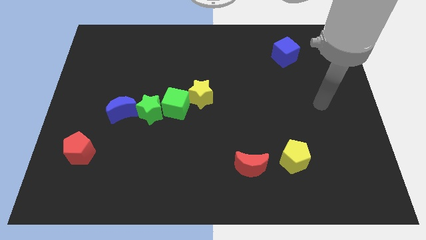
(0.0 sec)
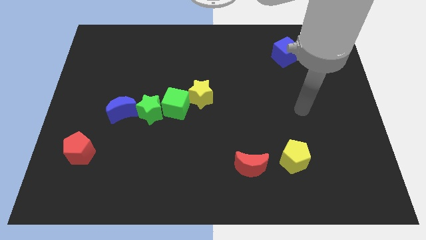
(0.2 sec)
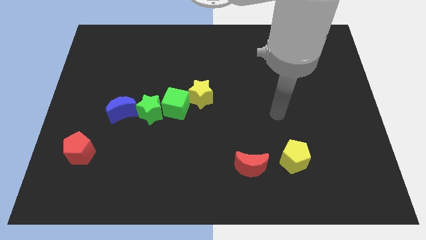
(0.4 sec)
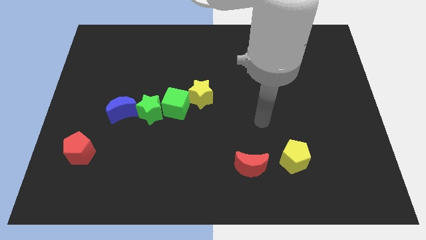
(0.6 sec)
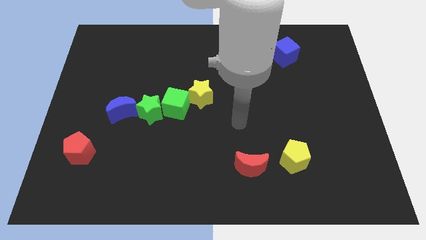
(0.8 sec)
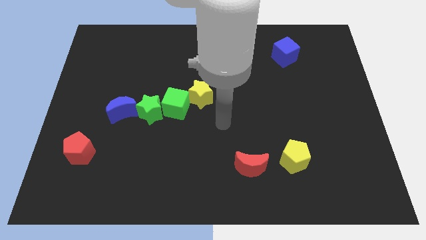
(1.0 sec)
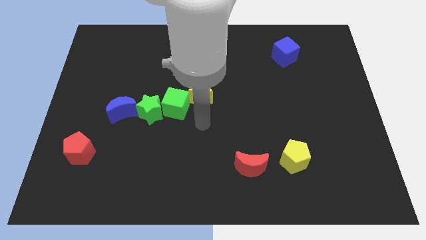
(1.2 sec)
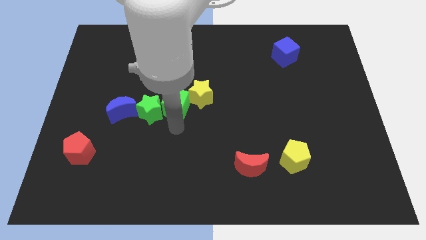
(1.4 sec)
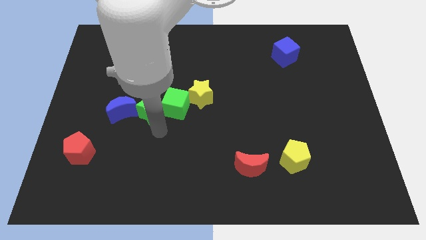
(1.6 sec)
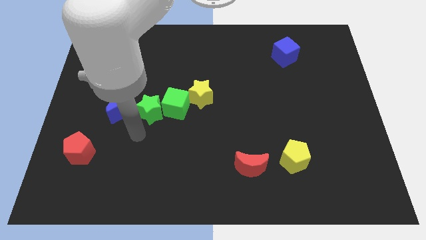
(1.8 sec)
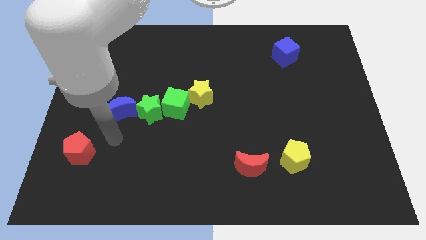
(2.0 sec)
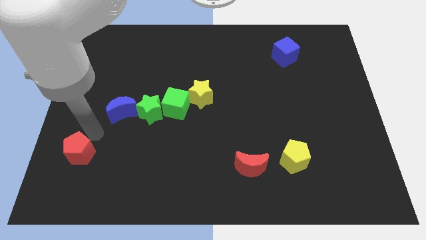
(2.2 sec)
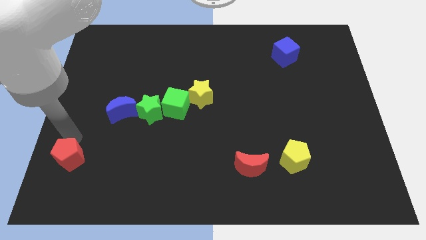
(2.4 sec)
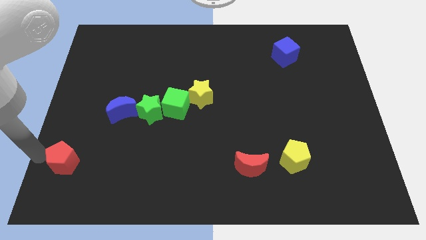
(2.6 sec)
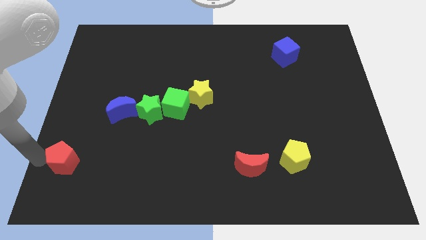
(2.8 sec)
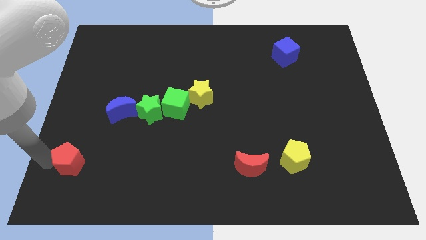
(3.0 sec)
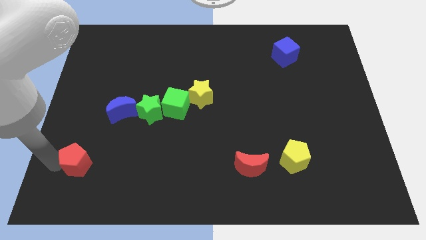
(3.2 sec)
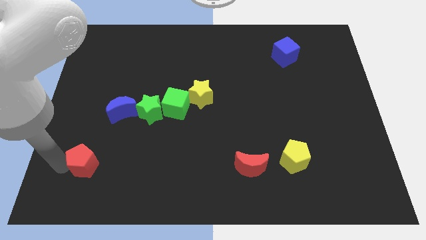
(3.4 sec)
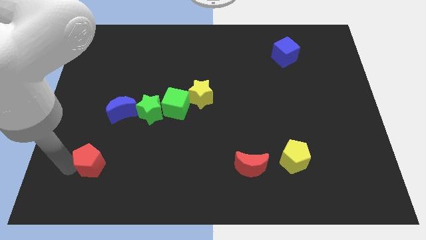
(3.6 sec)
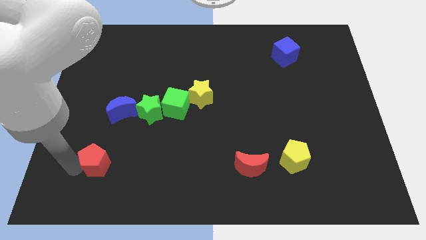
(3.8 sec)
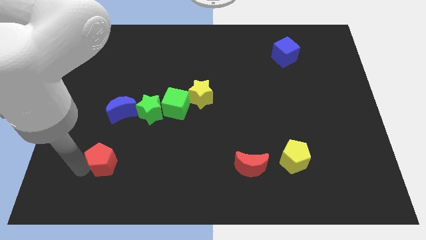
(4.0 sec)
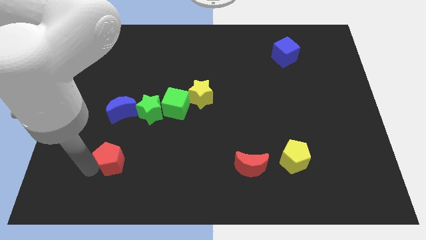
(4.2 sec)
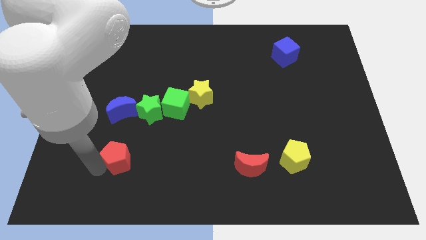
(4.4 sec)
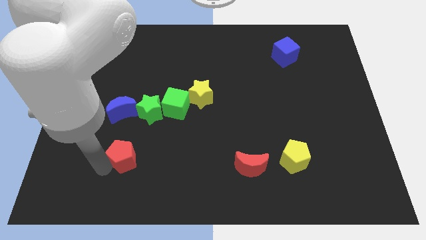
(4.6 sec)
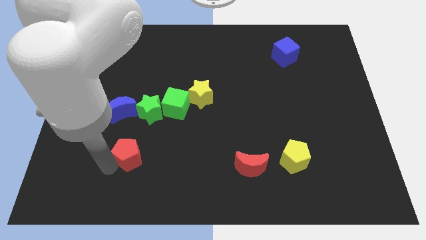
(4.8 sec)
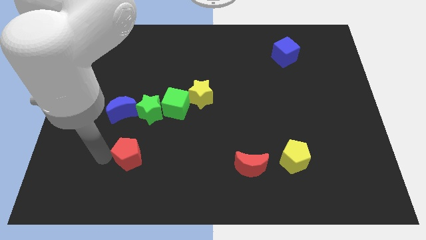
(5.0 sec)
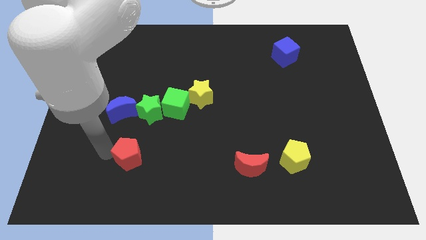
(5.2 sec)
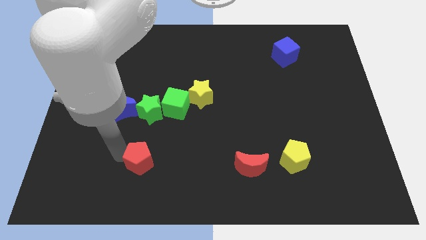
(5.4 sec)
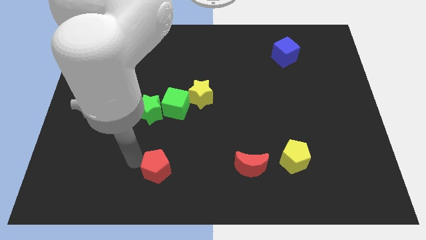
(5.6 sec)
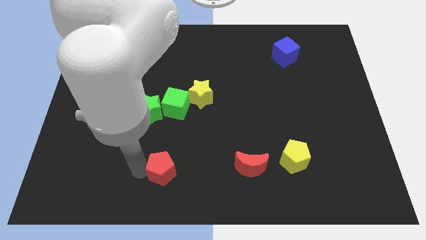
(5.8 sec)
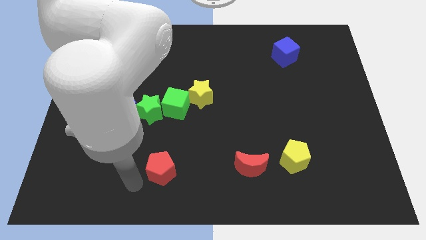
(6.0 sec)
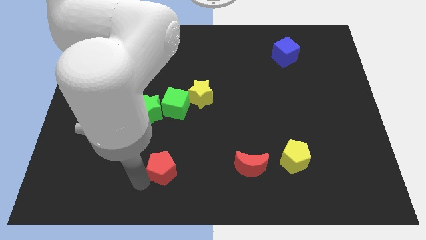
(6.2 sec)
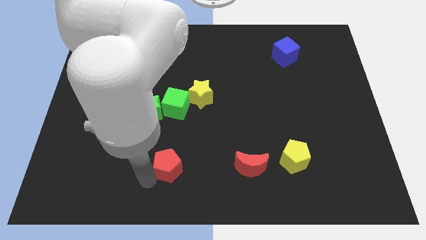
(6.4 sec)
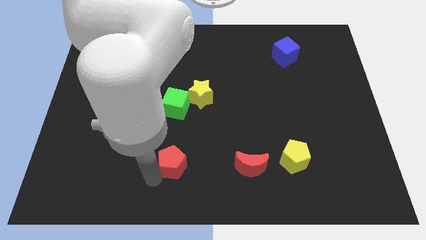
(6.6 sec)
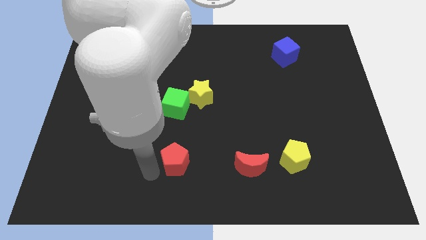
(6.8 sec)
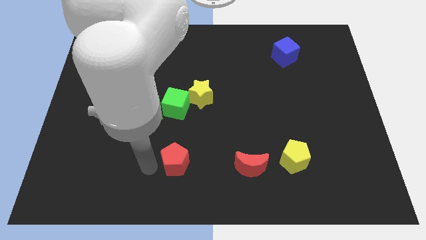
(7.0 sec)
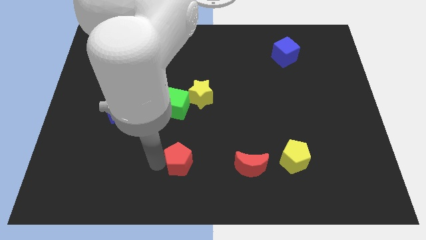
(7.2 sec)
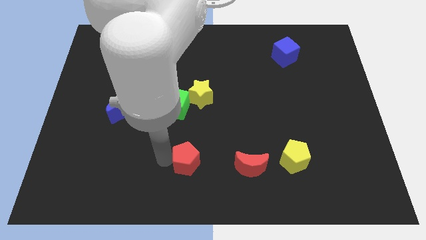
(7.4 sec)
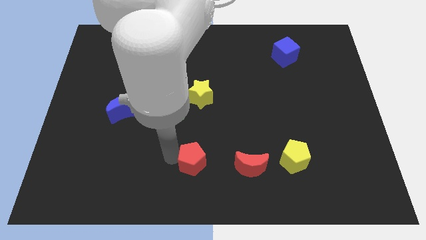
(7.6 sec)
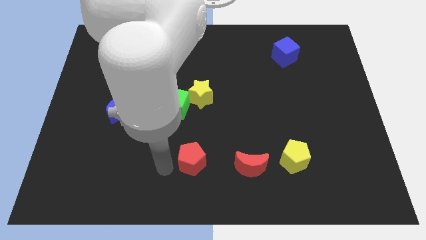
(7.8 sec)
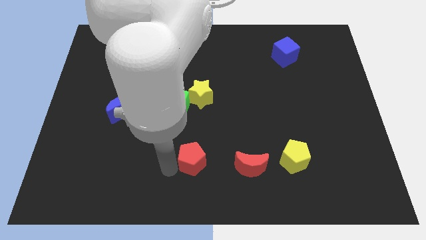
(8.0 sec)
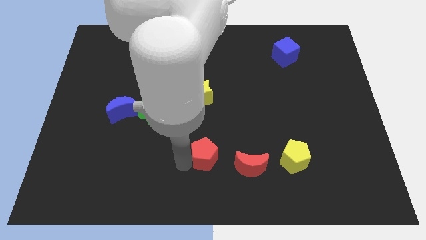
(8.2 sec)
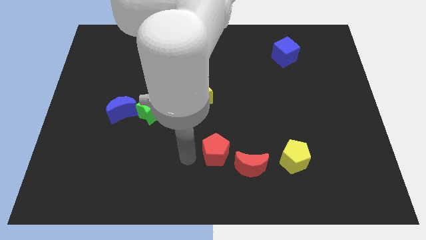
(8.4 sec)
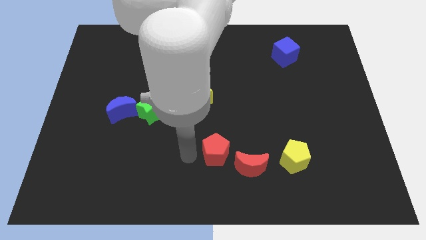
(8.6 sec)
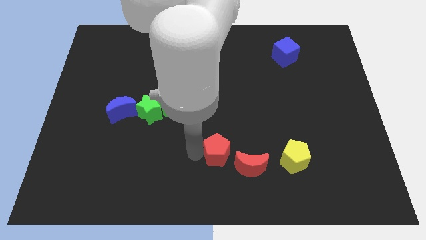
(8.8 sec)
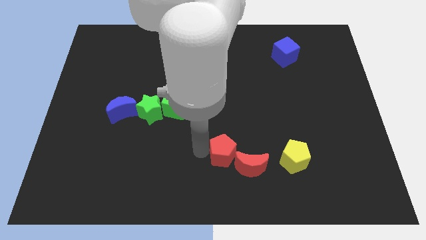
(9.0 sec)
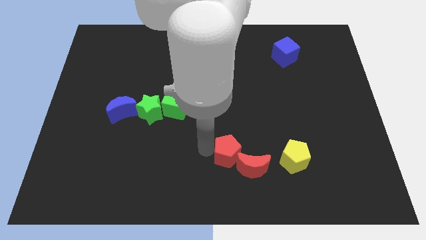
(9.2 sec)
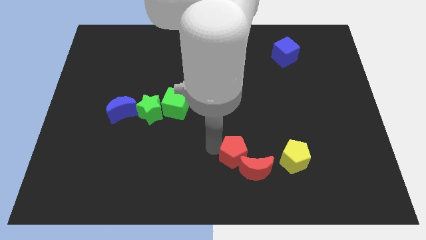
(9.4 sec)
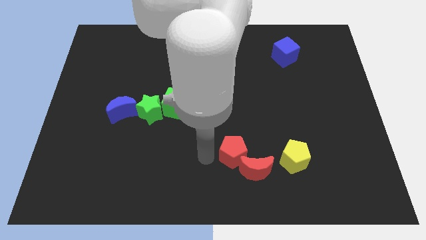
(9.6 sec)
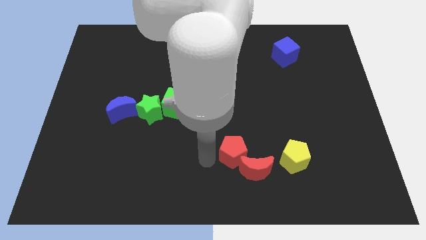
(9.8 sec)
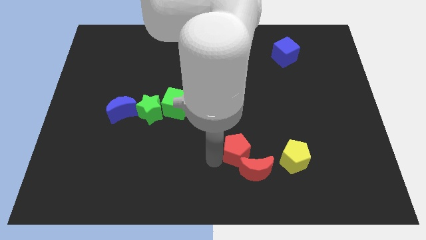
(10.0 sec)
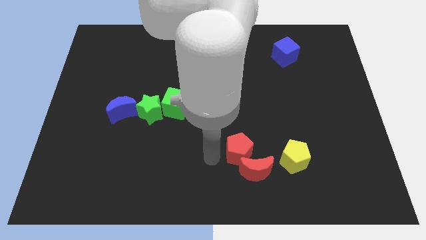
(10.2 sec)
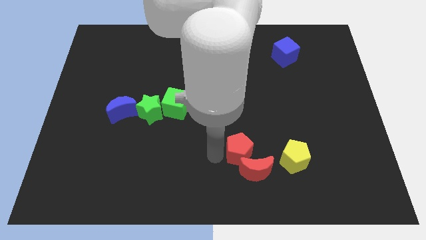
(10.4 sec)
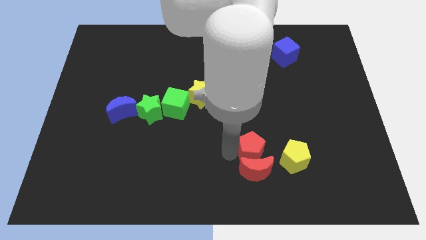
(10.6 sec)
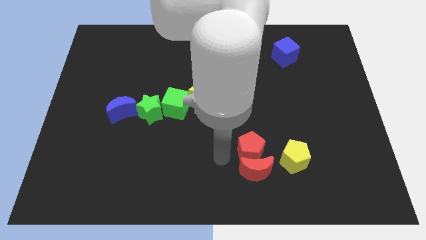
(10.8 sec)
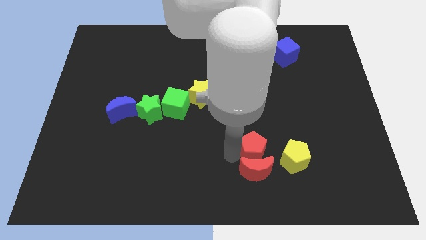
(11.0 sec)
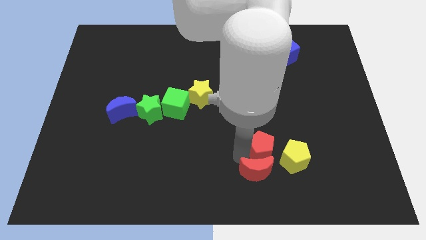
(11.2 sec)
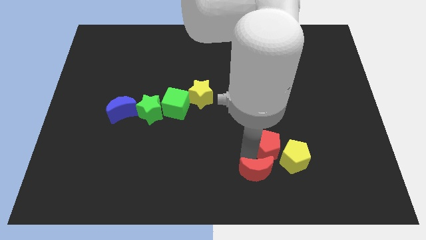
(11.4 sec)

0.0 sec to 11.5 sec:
move the red pentagon close to the yellow pentagon

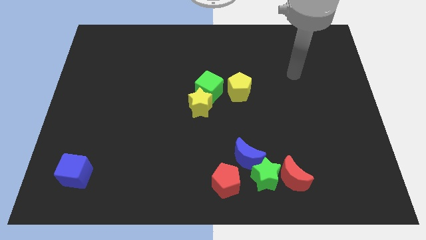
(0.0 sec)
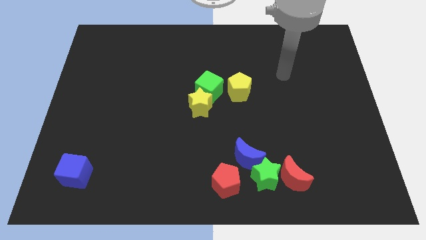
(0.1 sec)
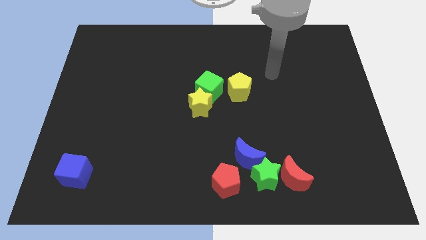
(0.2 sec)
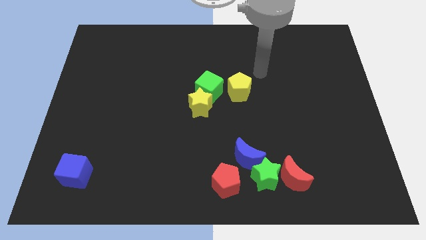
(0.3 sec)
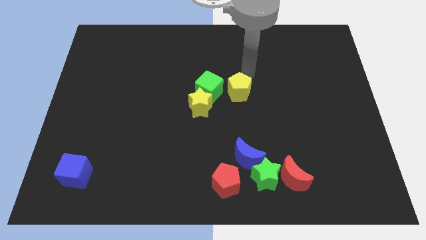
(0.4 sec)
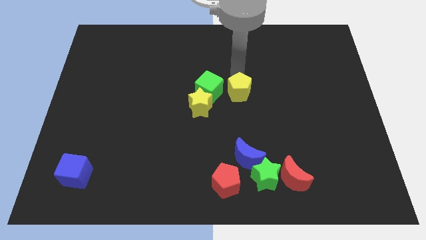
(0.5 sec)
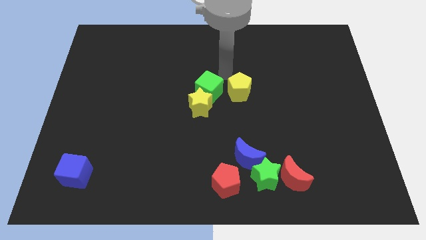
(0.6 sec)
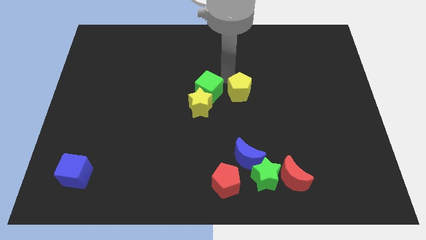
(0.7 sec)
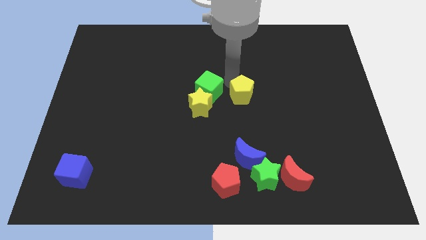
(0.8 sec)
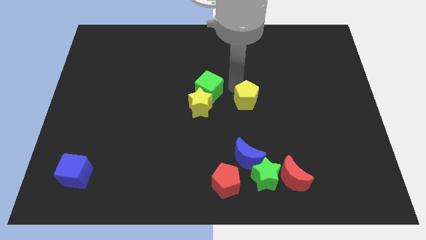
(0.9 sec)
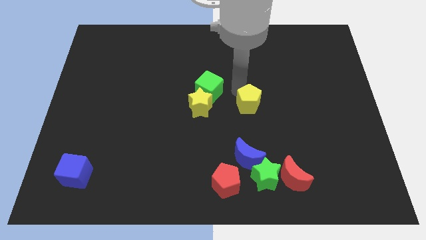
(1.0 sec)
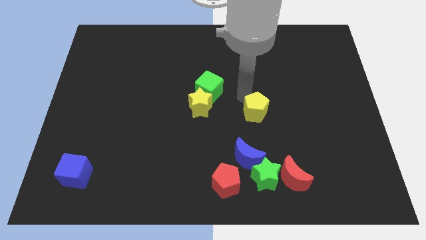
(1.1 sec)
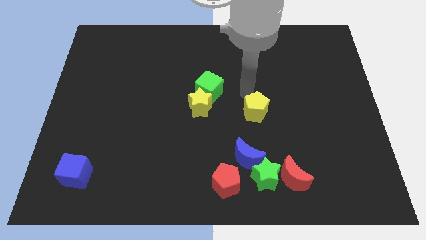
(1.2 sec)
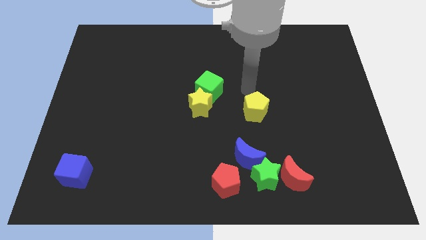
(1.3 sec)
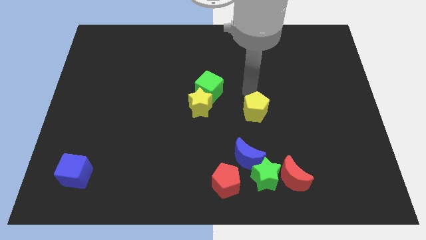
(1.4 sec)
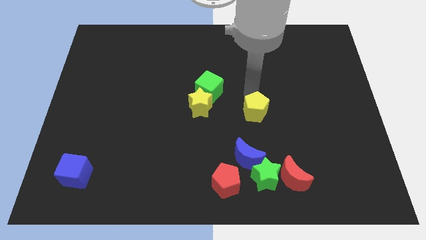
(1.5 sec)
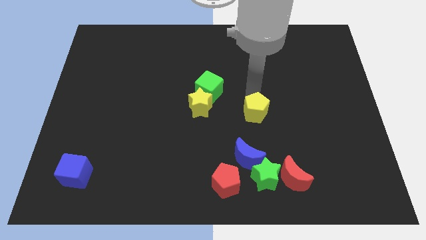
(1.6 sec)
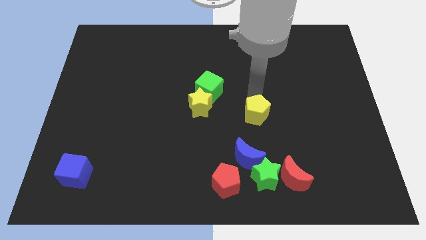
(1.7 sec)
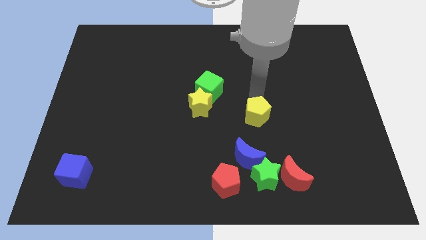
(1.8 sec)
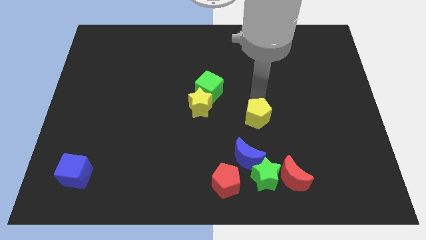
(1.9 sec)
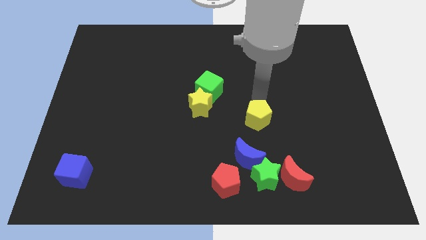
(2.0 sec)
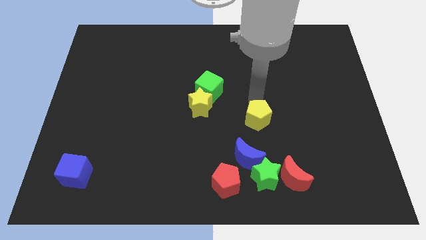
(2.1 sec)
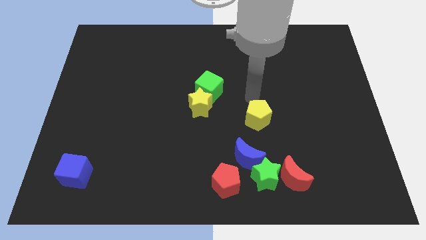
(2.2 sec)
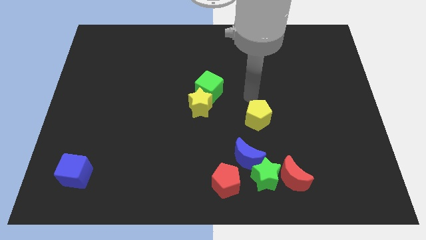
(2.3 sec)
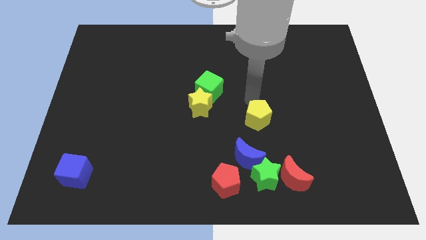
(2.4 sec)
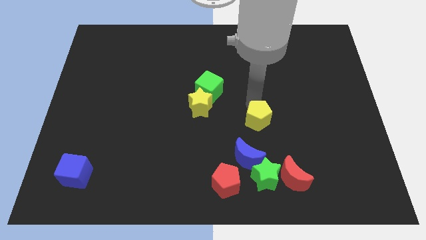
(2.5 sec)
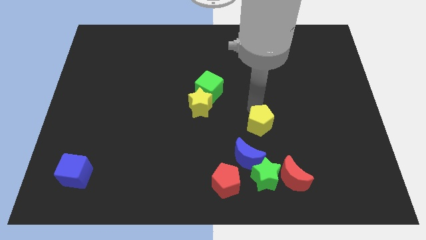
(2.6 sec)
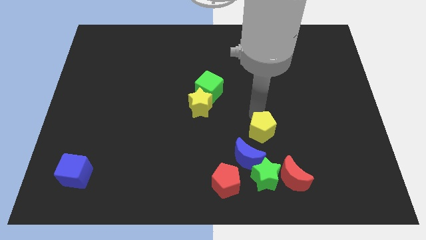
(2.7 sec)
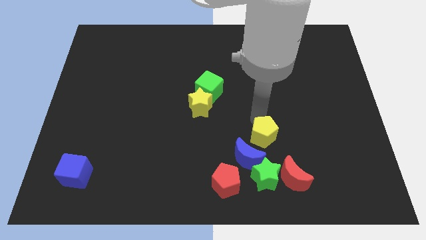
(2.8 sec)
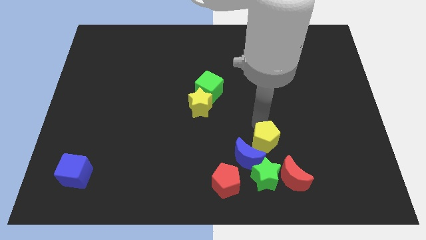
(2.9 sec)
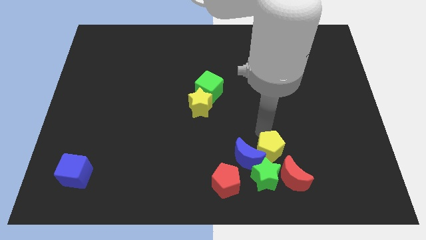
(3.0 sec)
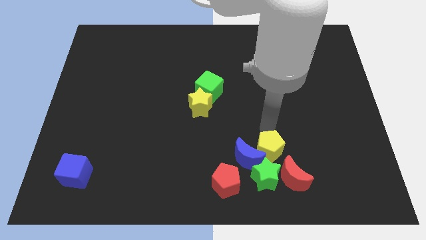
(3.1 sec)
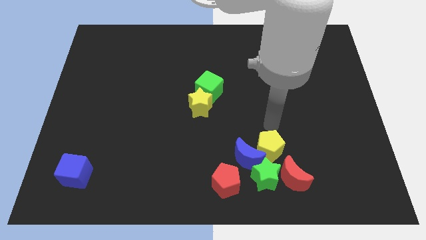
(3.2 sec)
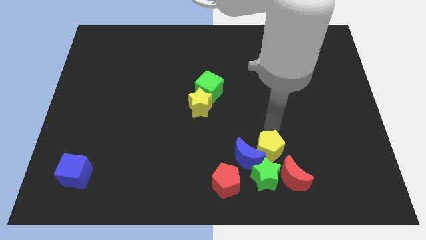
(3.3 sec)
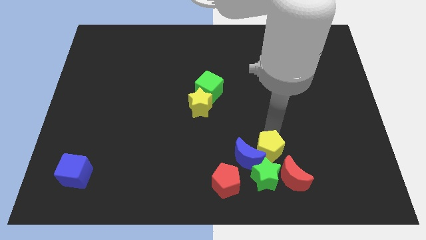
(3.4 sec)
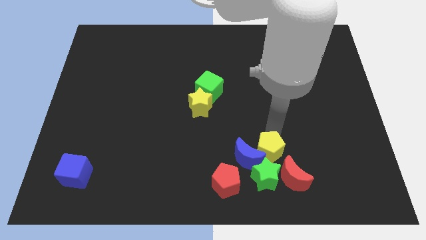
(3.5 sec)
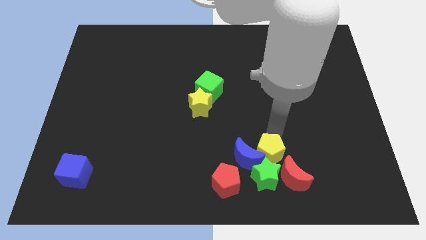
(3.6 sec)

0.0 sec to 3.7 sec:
put the yellow pentagon close to the green star
